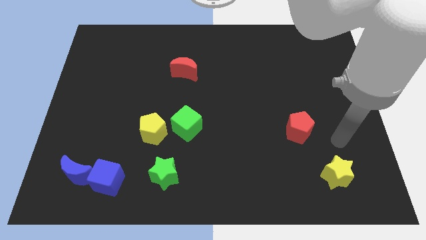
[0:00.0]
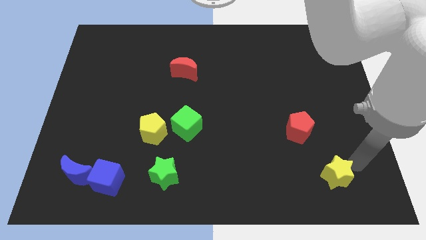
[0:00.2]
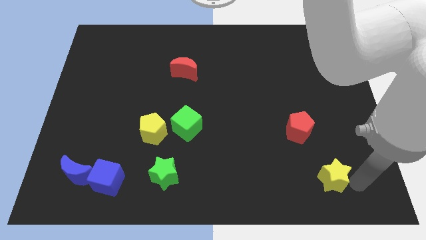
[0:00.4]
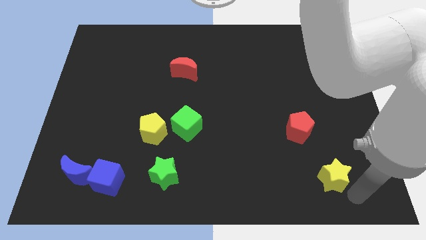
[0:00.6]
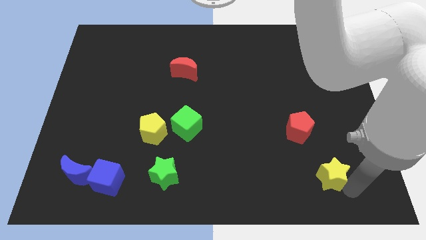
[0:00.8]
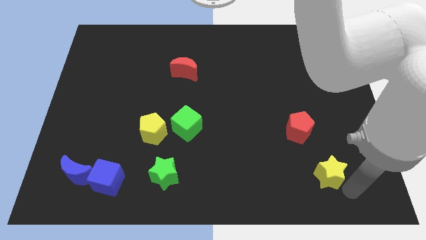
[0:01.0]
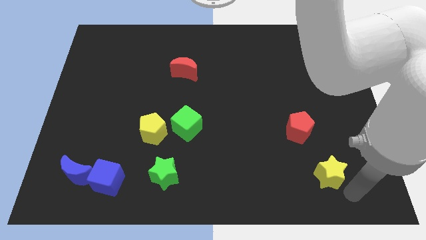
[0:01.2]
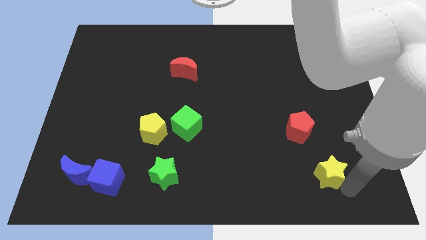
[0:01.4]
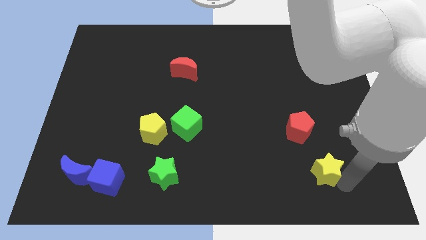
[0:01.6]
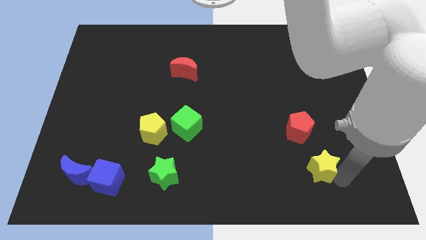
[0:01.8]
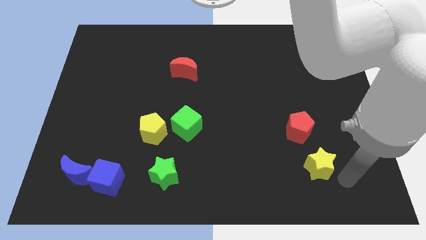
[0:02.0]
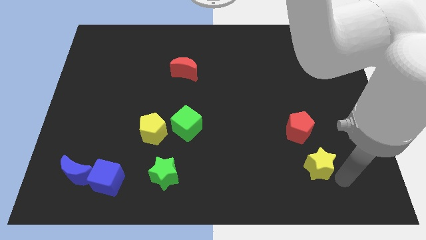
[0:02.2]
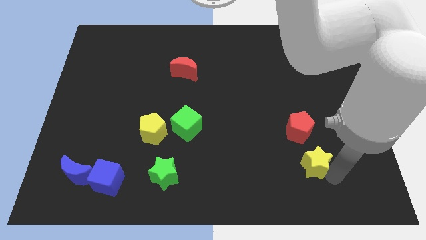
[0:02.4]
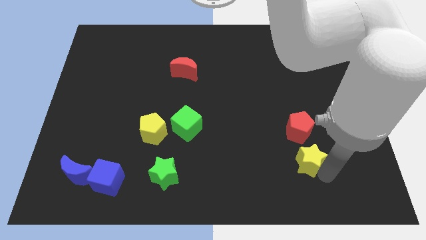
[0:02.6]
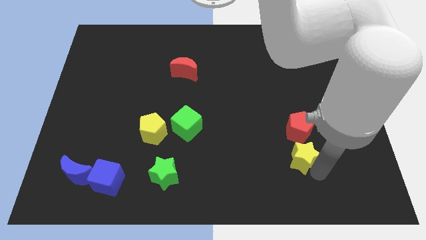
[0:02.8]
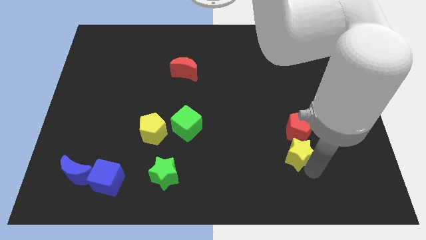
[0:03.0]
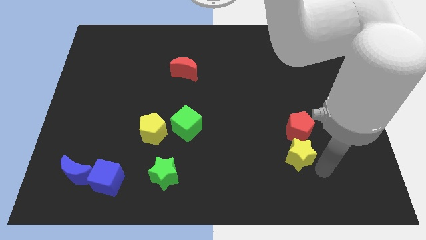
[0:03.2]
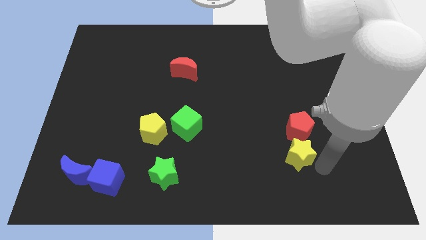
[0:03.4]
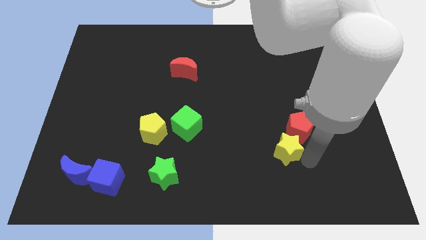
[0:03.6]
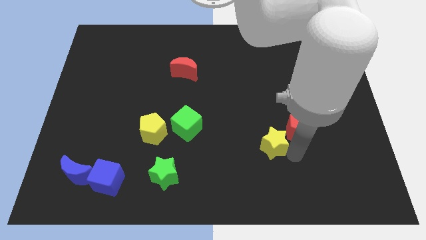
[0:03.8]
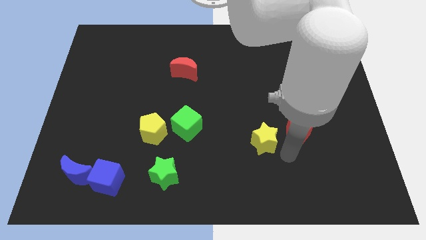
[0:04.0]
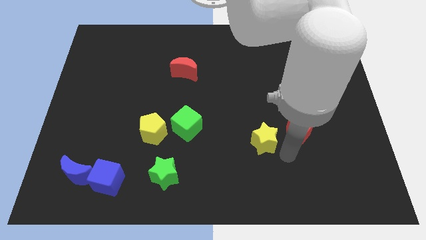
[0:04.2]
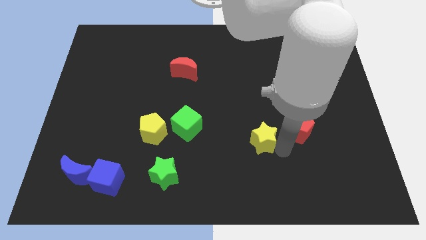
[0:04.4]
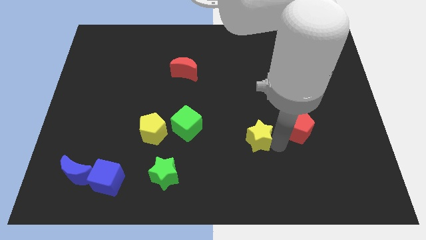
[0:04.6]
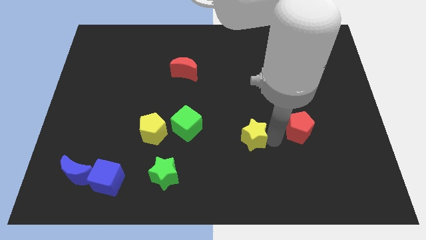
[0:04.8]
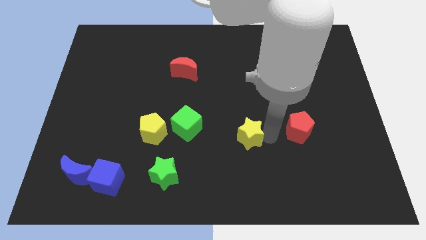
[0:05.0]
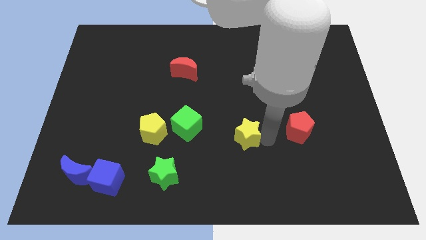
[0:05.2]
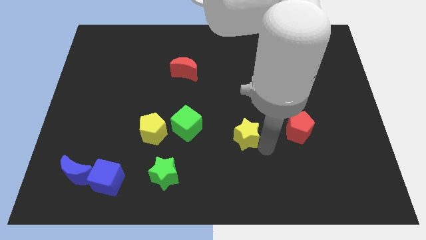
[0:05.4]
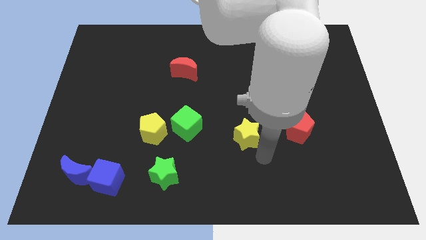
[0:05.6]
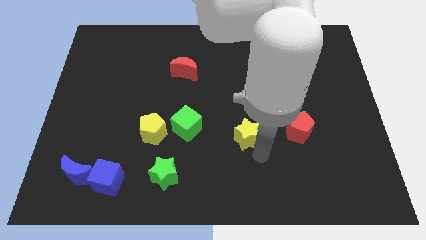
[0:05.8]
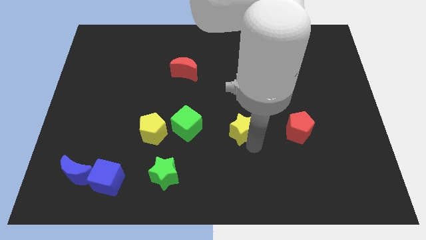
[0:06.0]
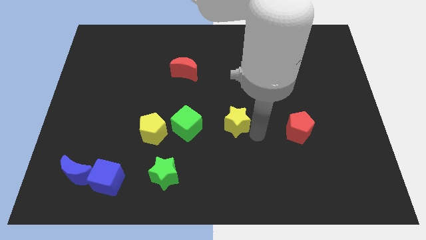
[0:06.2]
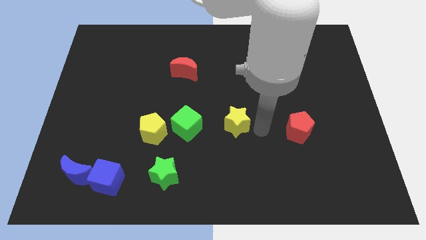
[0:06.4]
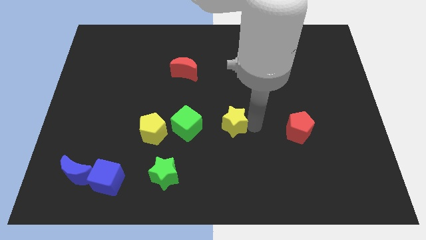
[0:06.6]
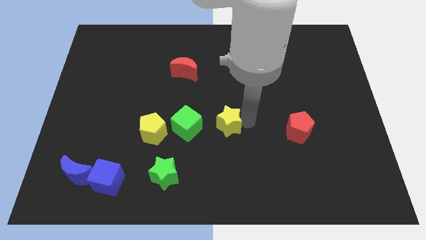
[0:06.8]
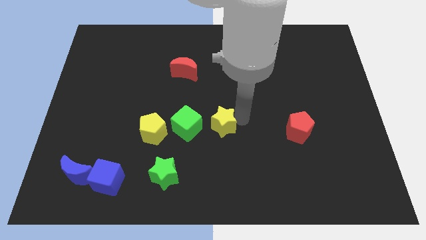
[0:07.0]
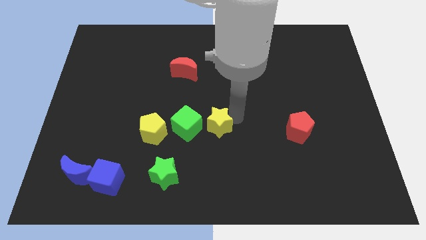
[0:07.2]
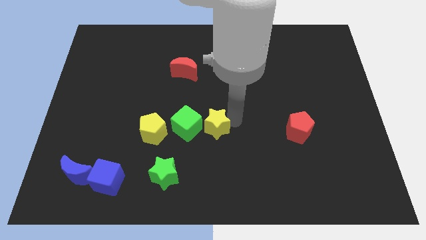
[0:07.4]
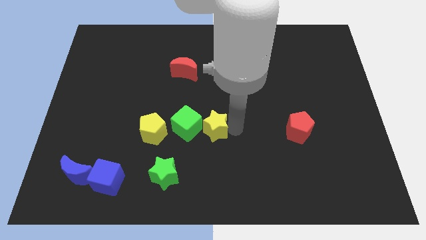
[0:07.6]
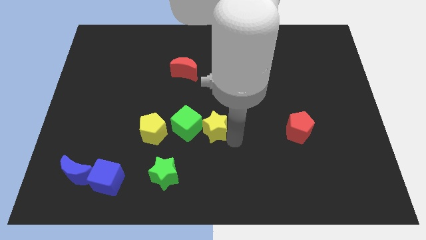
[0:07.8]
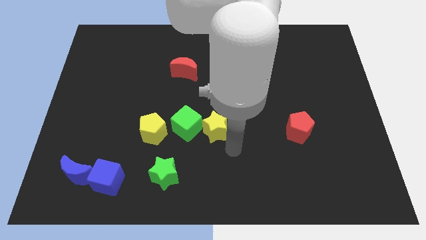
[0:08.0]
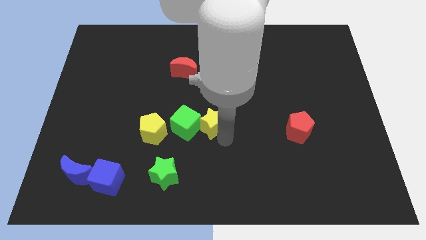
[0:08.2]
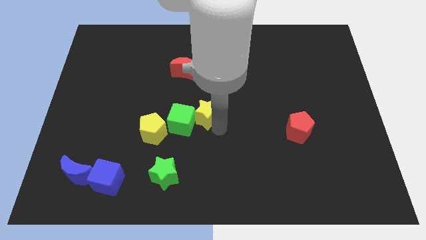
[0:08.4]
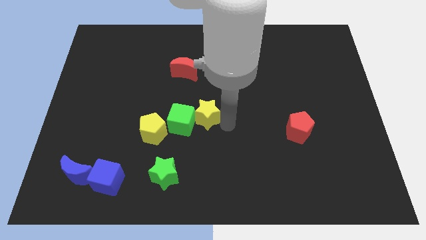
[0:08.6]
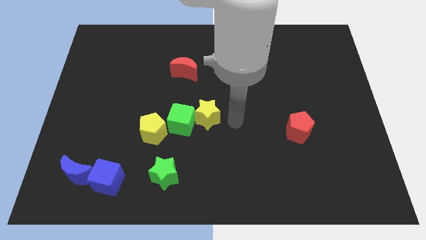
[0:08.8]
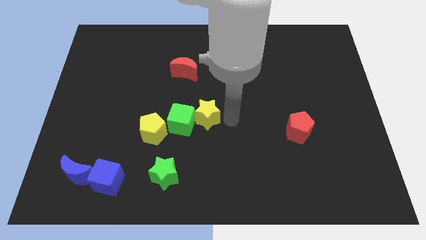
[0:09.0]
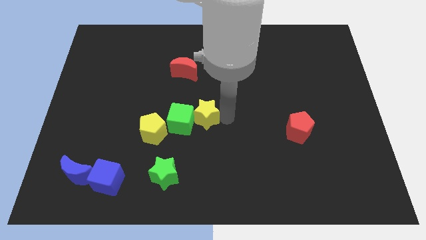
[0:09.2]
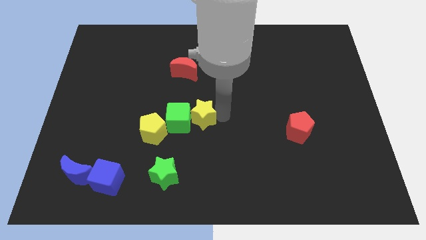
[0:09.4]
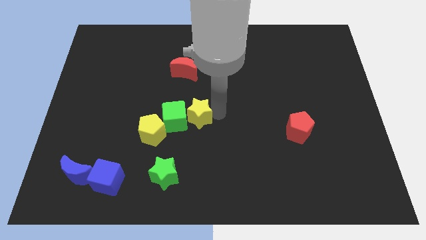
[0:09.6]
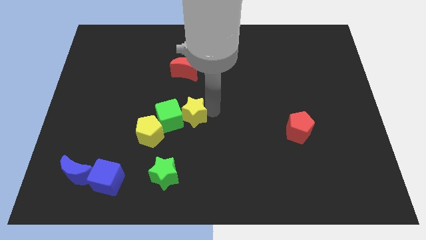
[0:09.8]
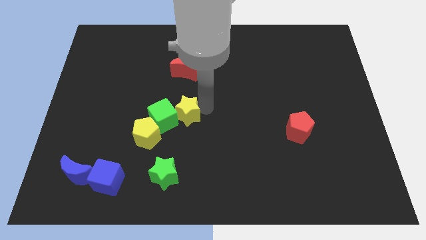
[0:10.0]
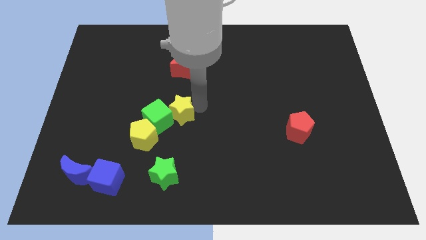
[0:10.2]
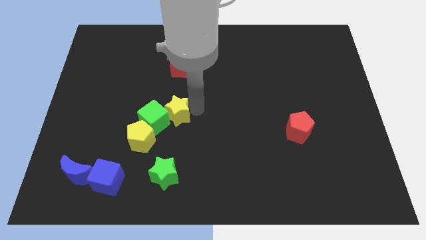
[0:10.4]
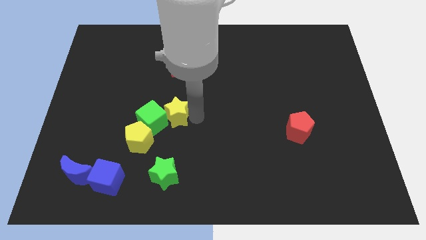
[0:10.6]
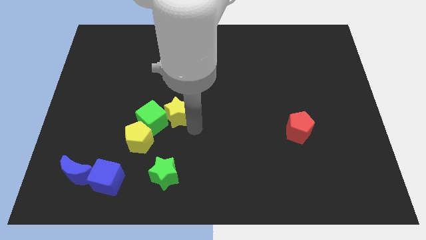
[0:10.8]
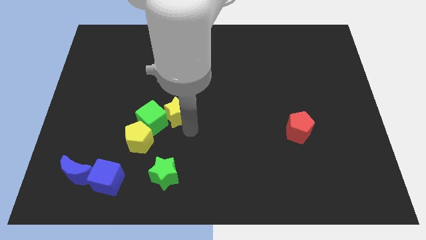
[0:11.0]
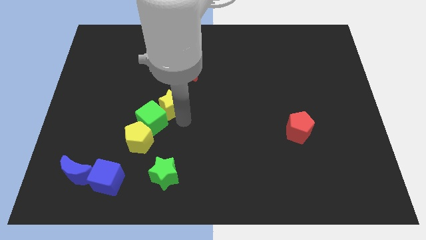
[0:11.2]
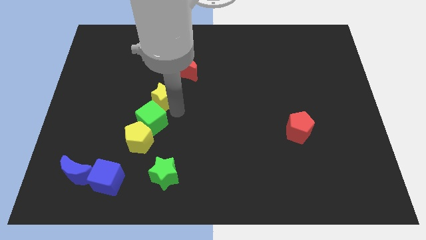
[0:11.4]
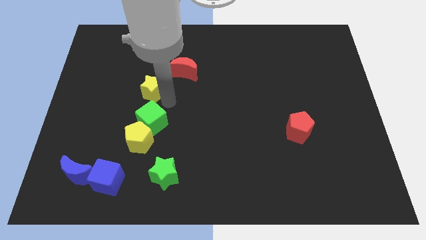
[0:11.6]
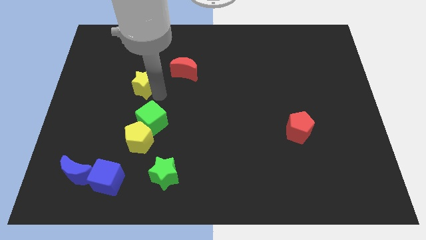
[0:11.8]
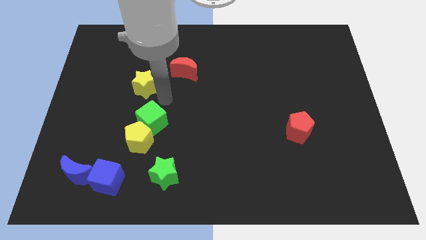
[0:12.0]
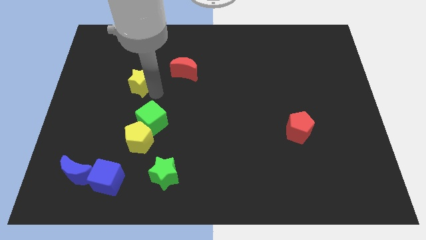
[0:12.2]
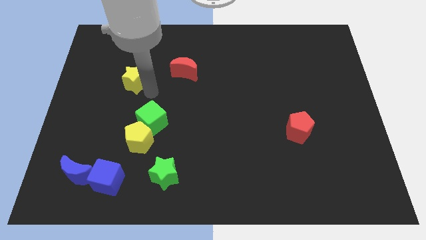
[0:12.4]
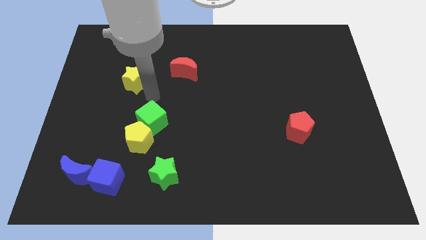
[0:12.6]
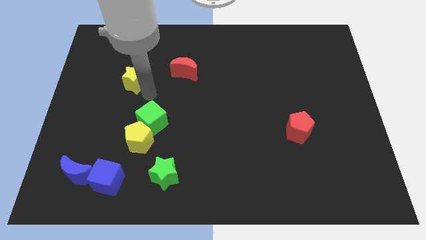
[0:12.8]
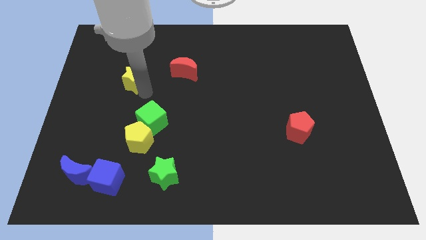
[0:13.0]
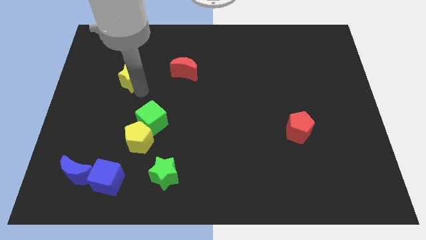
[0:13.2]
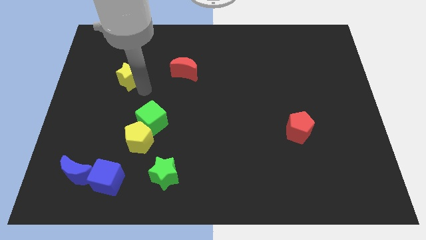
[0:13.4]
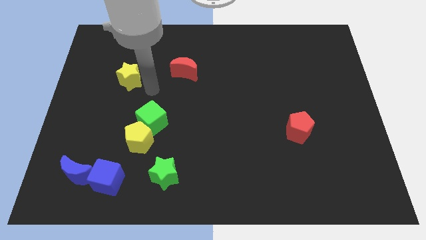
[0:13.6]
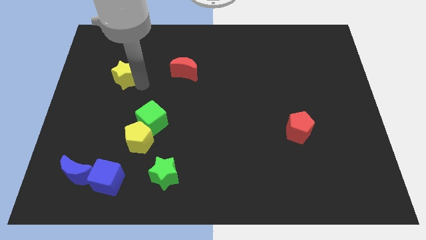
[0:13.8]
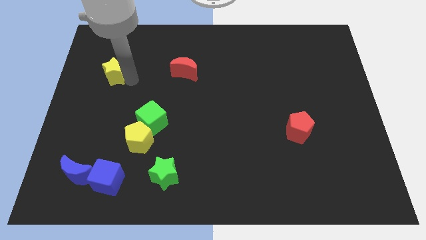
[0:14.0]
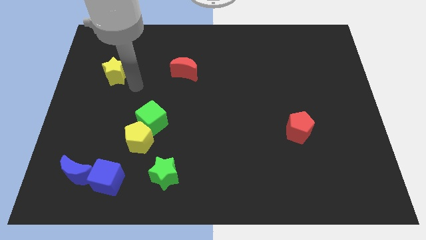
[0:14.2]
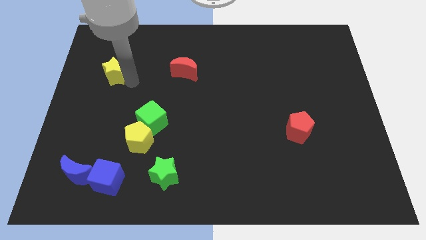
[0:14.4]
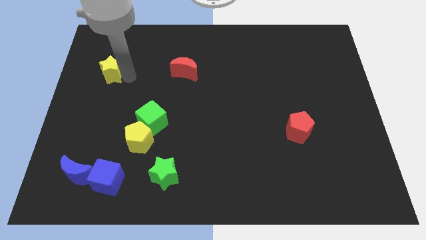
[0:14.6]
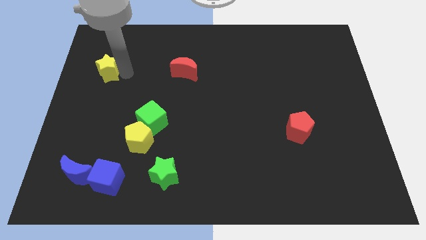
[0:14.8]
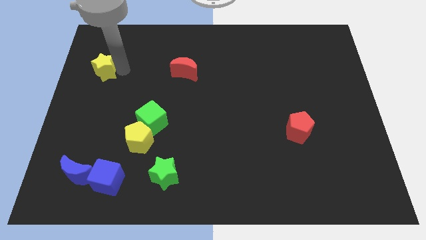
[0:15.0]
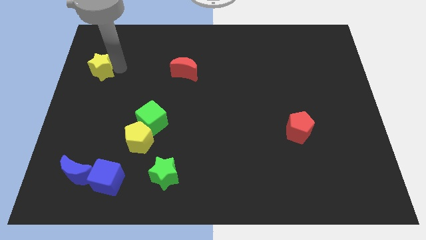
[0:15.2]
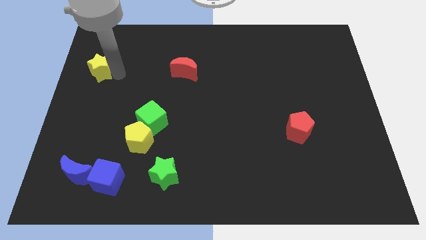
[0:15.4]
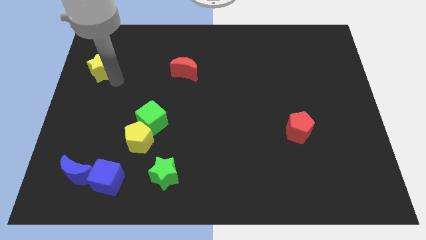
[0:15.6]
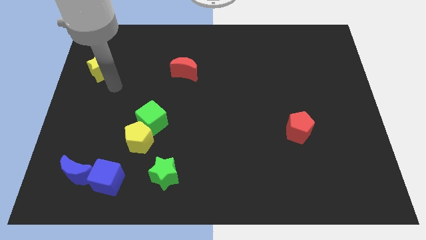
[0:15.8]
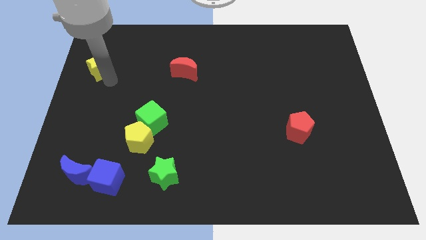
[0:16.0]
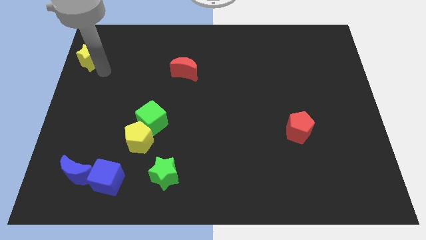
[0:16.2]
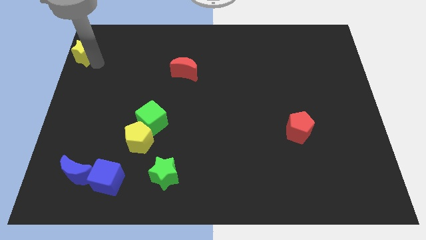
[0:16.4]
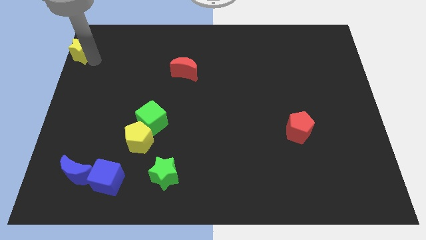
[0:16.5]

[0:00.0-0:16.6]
move the yellow star to the top left
